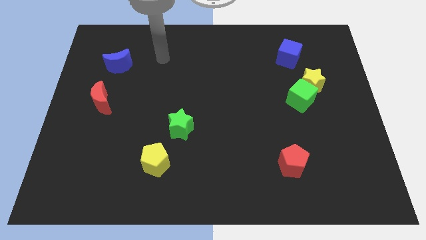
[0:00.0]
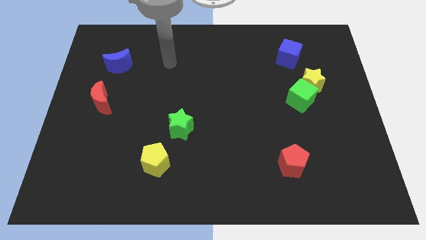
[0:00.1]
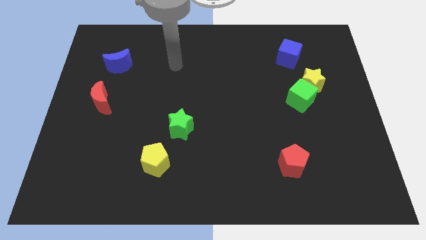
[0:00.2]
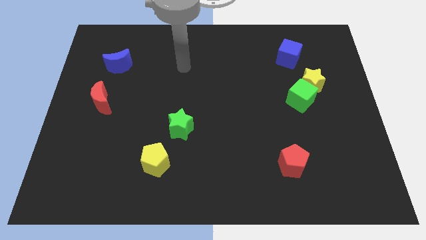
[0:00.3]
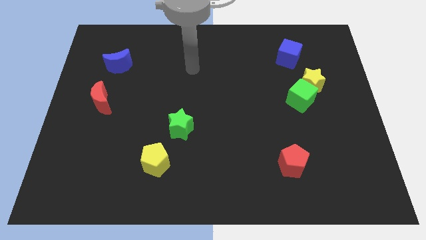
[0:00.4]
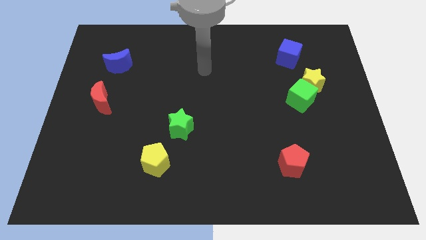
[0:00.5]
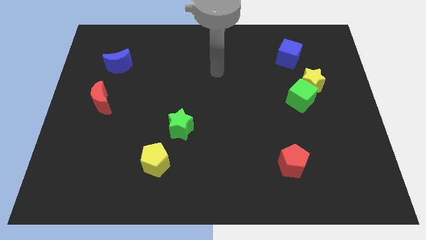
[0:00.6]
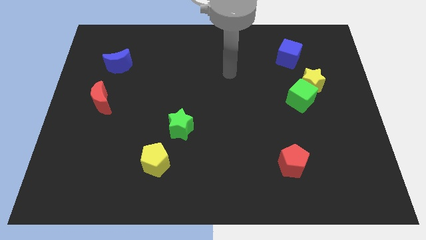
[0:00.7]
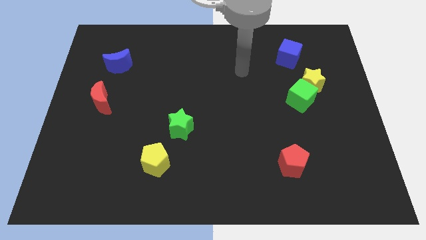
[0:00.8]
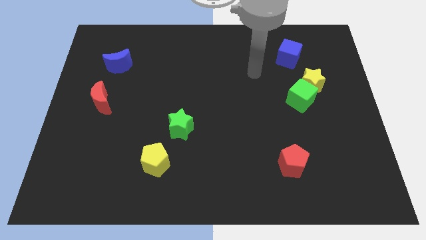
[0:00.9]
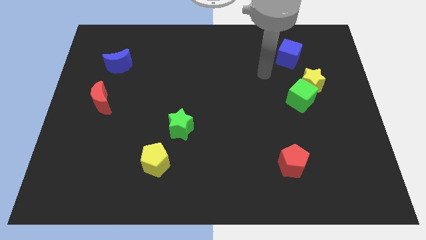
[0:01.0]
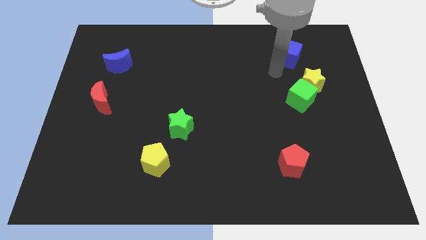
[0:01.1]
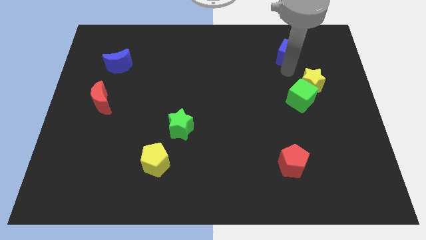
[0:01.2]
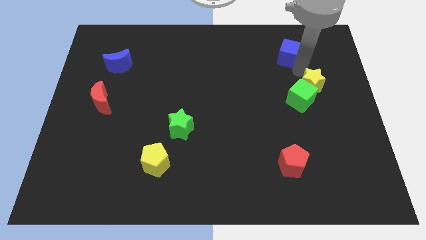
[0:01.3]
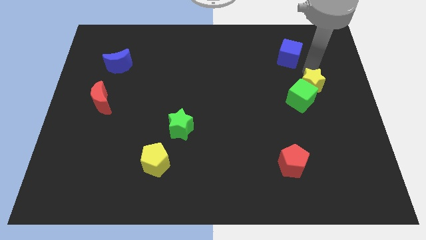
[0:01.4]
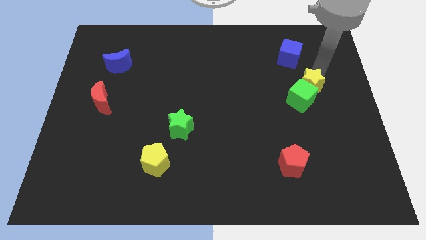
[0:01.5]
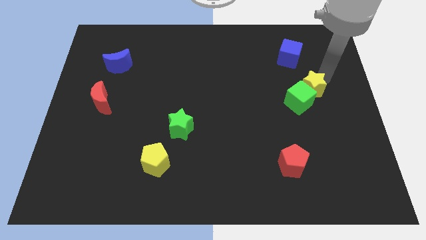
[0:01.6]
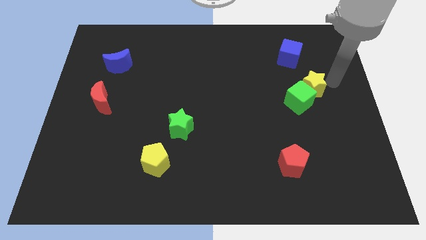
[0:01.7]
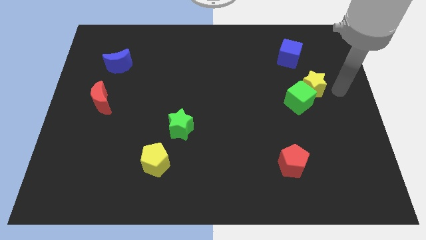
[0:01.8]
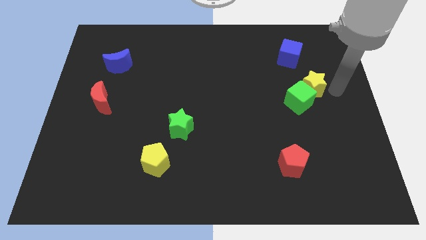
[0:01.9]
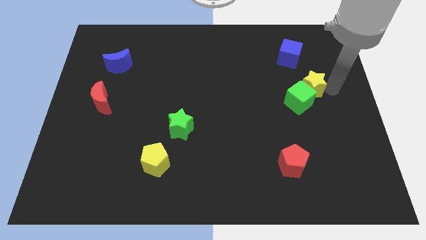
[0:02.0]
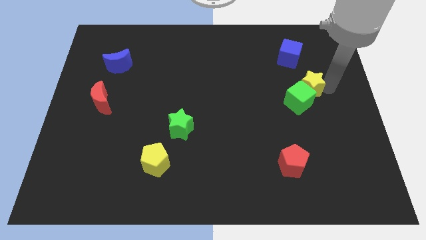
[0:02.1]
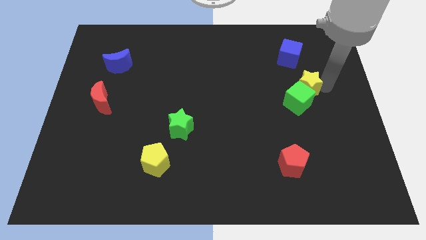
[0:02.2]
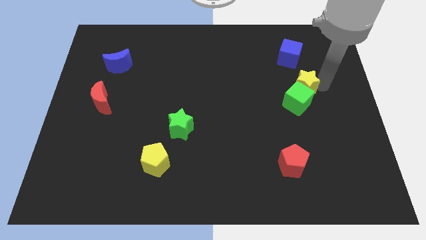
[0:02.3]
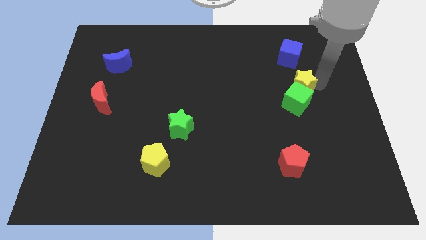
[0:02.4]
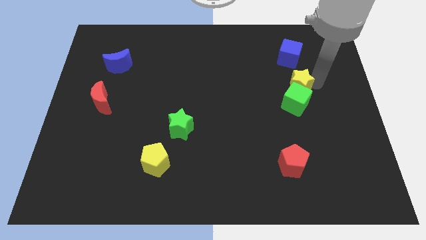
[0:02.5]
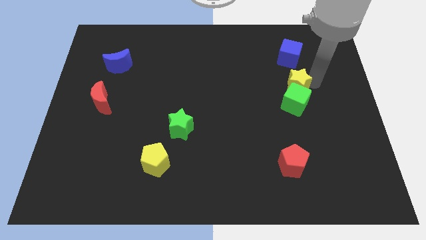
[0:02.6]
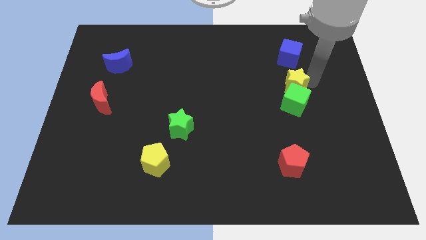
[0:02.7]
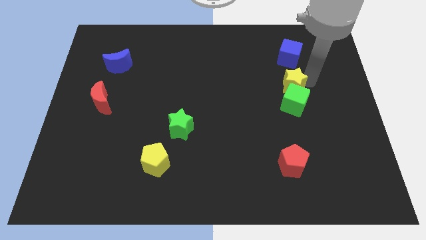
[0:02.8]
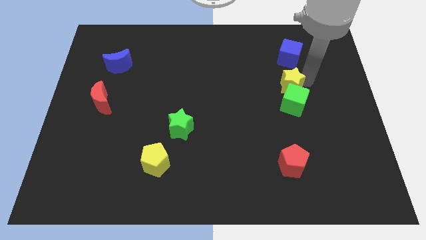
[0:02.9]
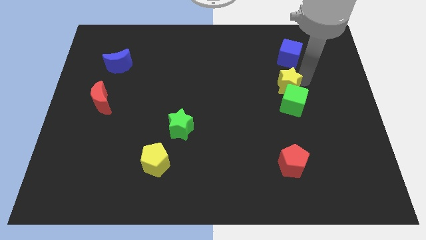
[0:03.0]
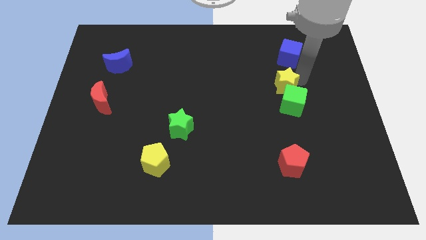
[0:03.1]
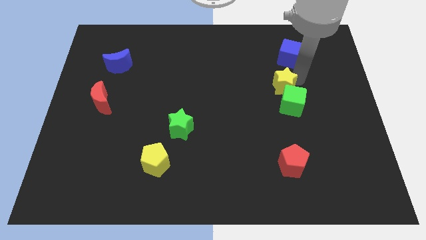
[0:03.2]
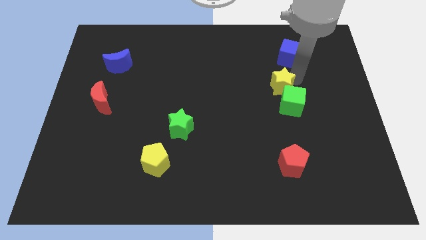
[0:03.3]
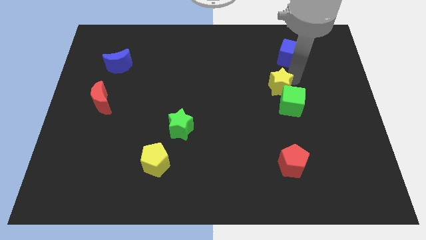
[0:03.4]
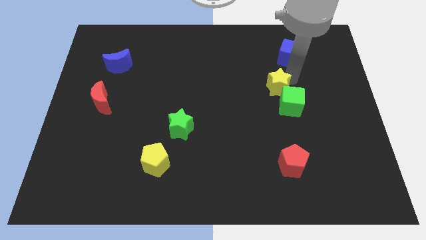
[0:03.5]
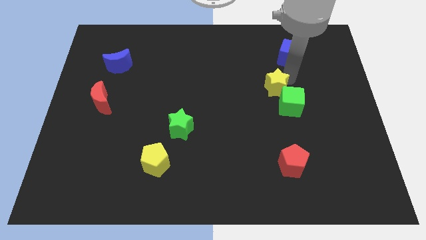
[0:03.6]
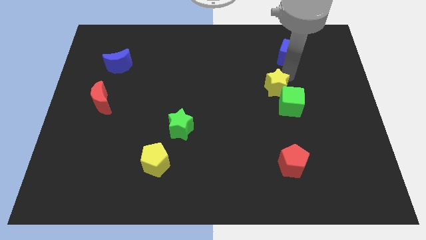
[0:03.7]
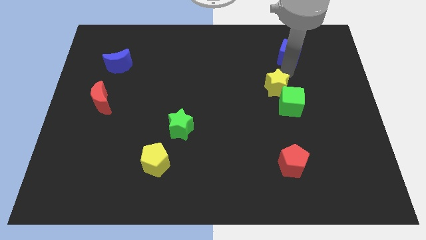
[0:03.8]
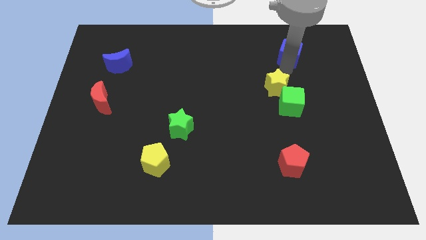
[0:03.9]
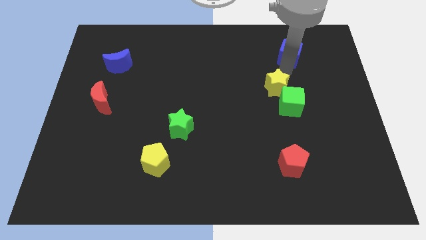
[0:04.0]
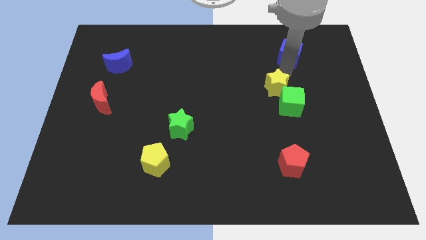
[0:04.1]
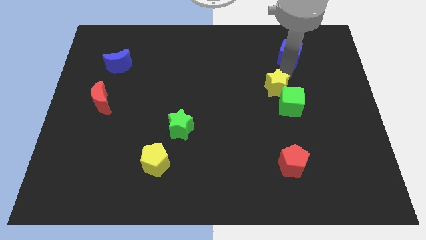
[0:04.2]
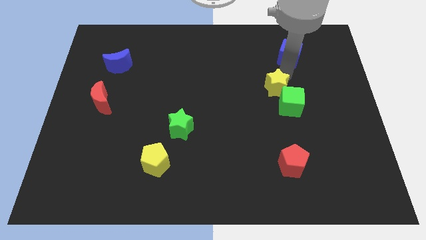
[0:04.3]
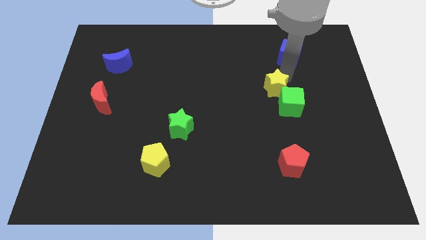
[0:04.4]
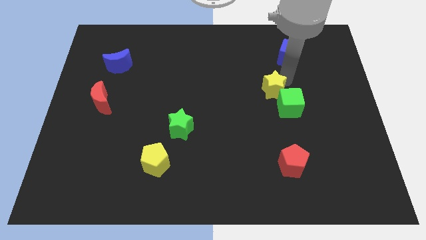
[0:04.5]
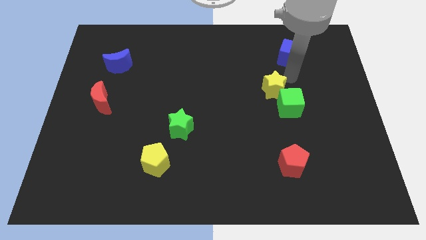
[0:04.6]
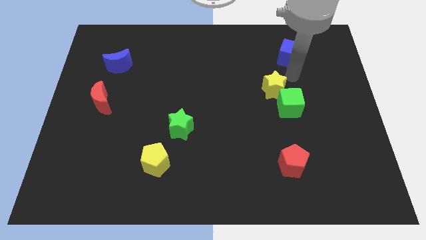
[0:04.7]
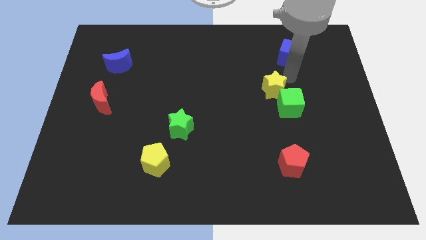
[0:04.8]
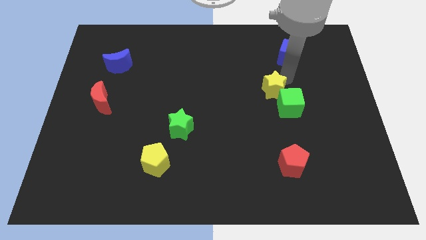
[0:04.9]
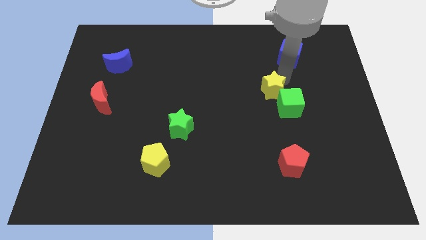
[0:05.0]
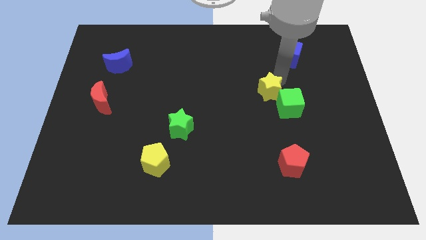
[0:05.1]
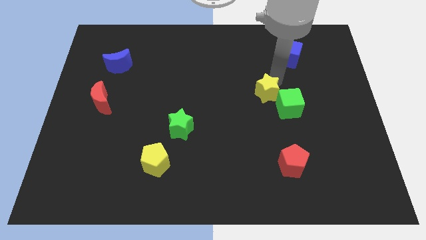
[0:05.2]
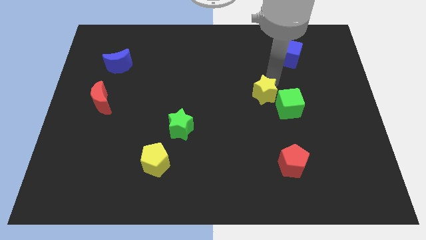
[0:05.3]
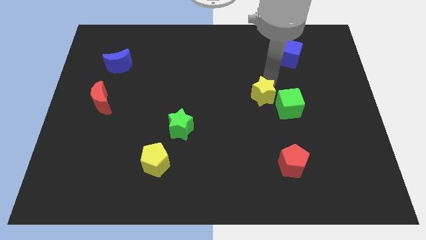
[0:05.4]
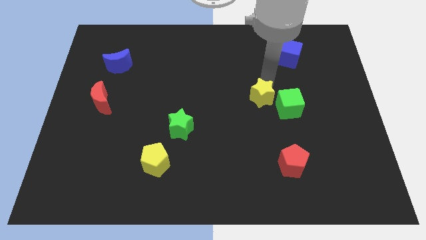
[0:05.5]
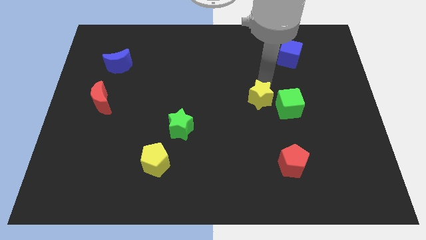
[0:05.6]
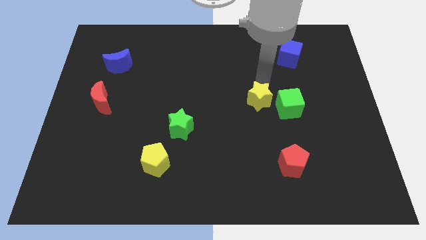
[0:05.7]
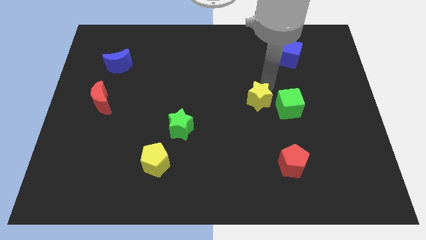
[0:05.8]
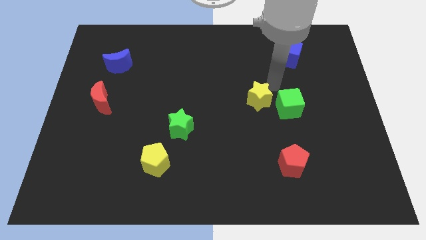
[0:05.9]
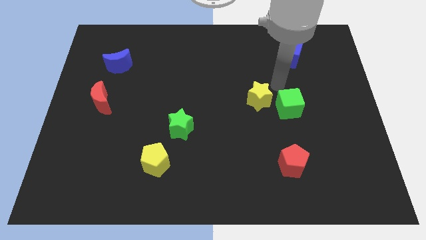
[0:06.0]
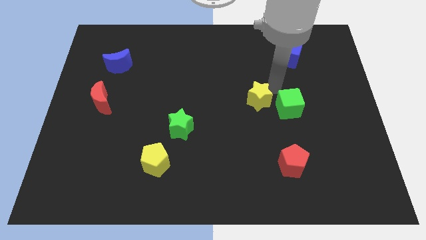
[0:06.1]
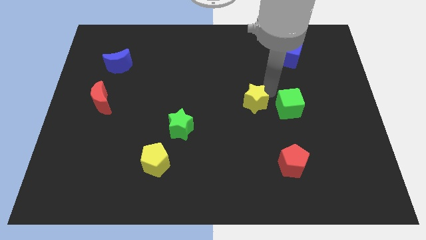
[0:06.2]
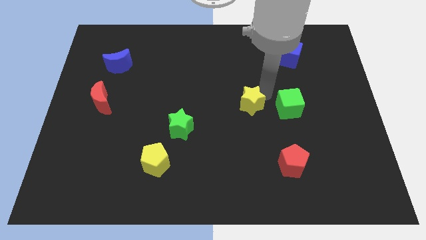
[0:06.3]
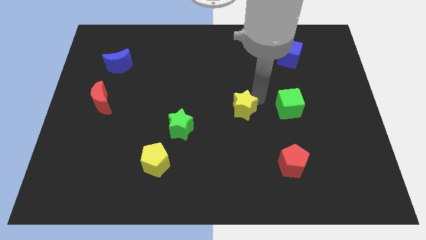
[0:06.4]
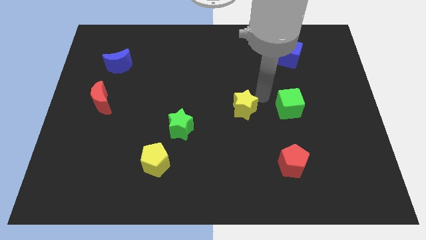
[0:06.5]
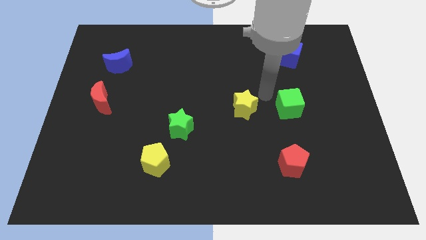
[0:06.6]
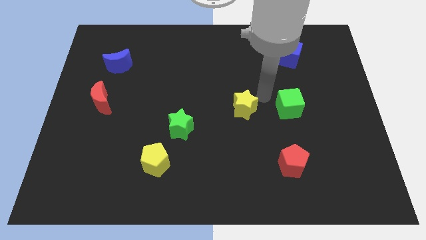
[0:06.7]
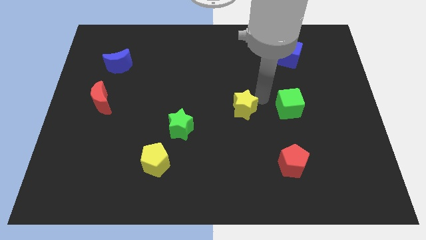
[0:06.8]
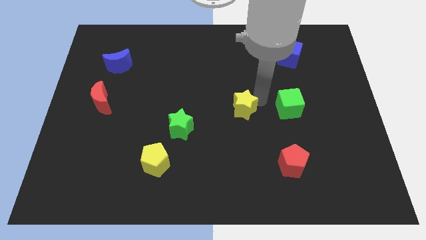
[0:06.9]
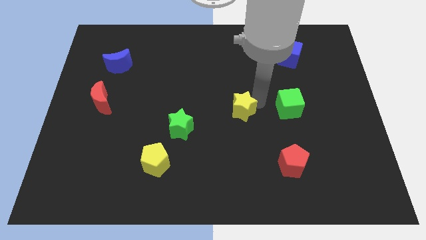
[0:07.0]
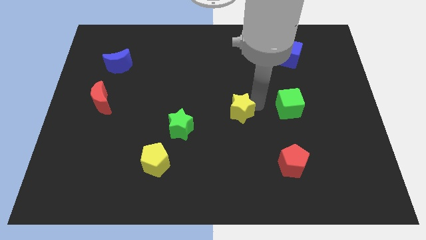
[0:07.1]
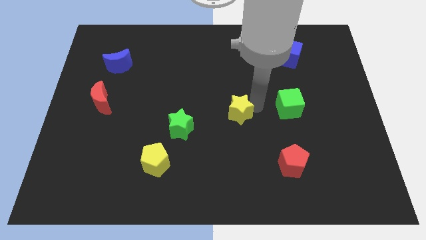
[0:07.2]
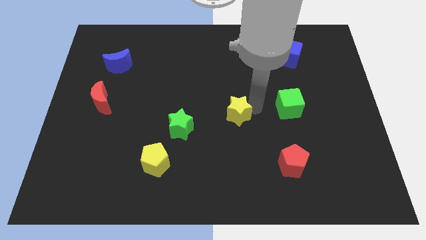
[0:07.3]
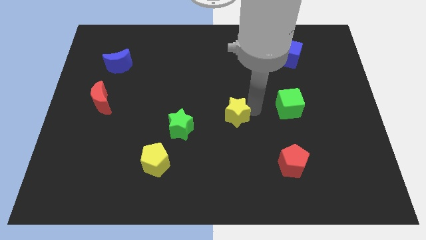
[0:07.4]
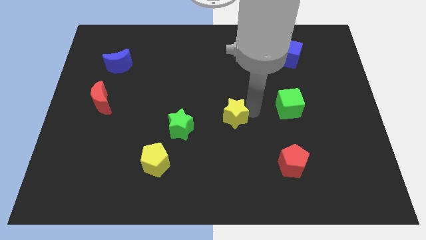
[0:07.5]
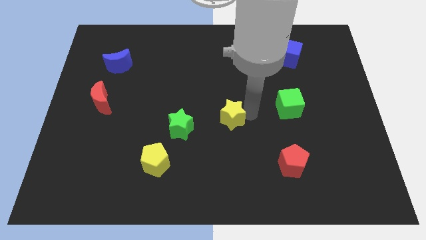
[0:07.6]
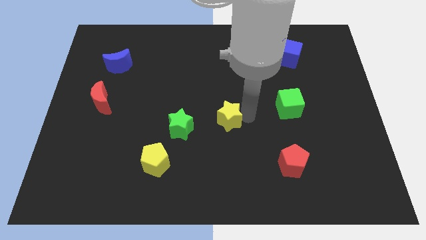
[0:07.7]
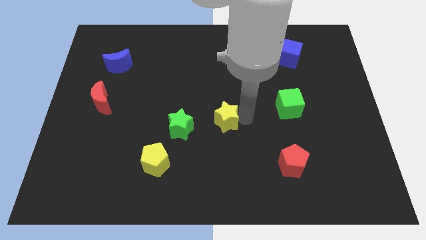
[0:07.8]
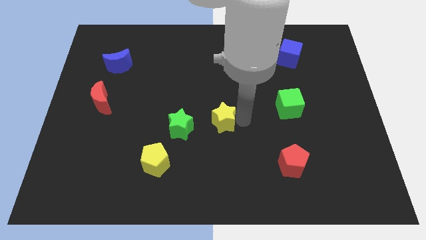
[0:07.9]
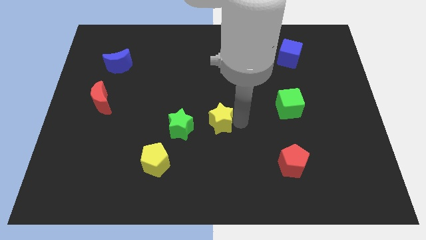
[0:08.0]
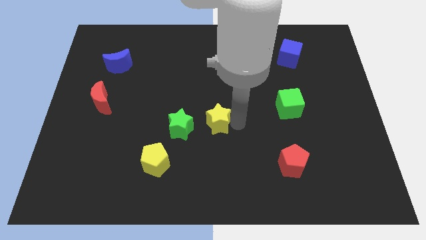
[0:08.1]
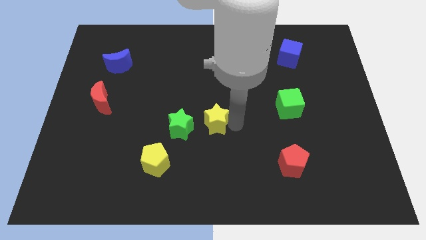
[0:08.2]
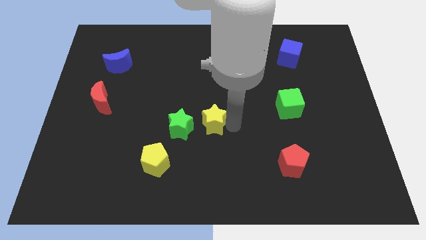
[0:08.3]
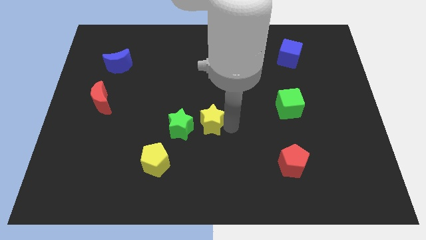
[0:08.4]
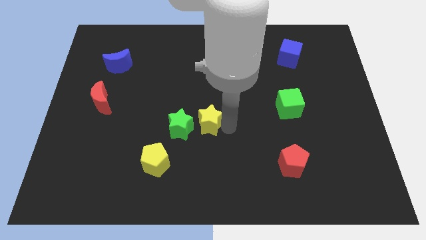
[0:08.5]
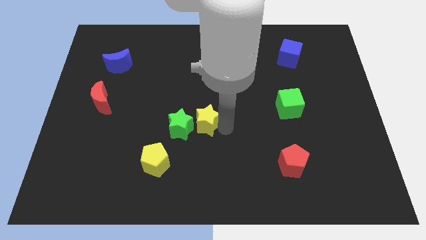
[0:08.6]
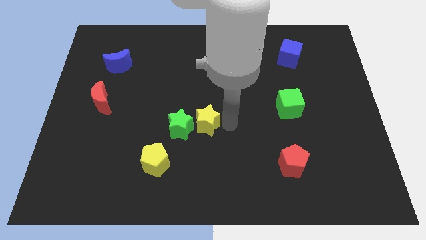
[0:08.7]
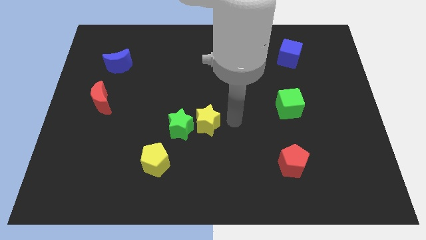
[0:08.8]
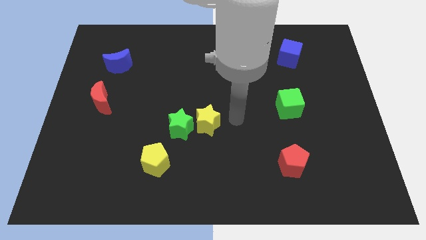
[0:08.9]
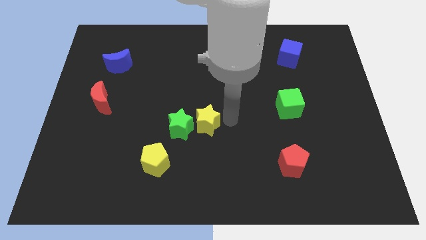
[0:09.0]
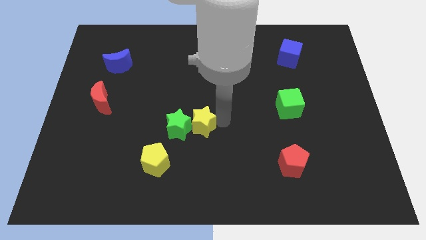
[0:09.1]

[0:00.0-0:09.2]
move the yellow star close to the green star
